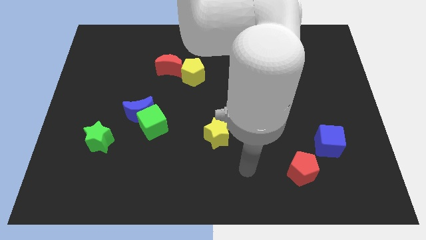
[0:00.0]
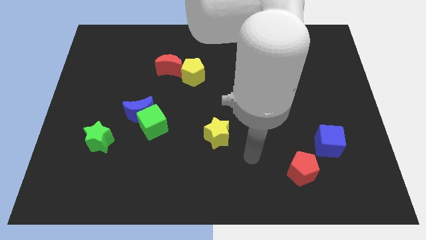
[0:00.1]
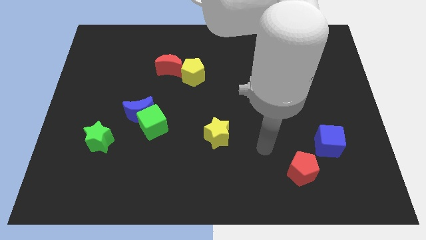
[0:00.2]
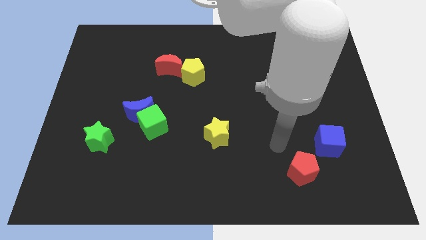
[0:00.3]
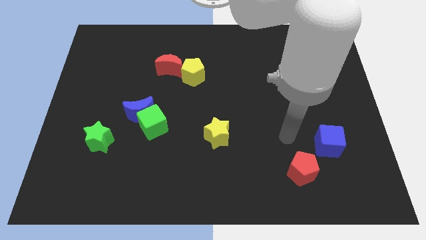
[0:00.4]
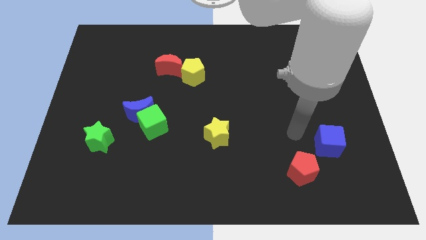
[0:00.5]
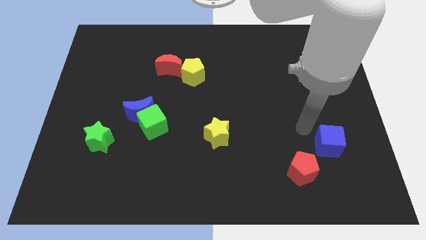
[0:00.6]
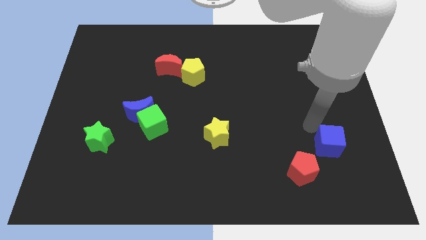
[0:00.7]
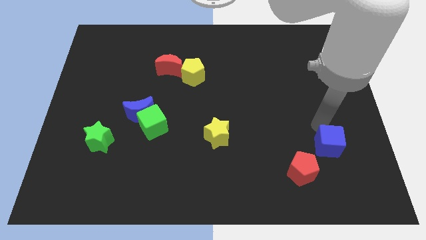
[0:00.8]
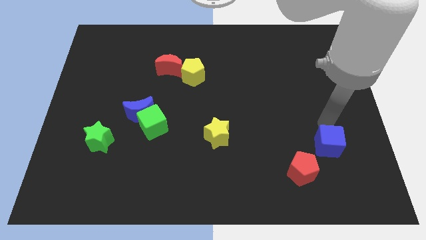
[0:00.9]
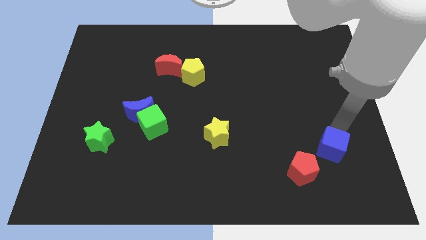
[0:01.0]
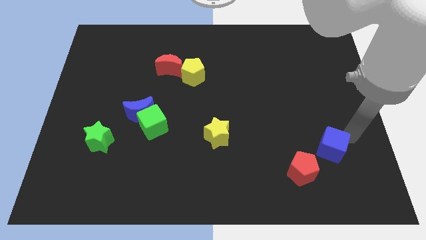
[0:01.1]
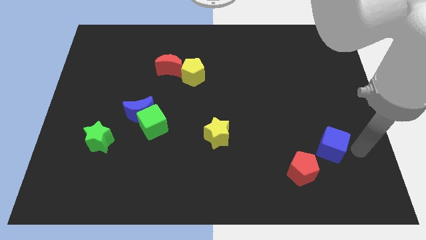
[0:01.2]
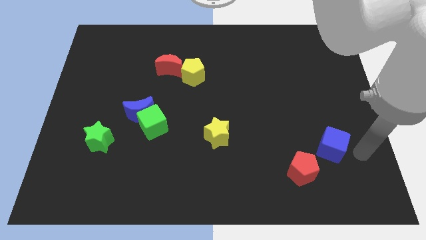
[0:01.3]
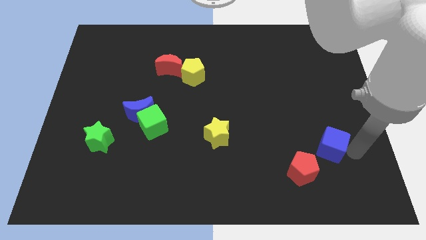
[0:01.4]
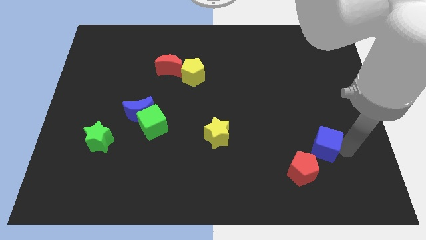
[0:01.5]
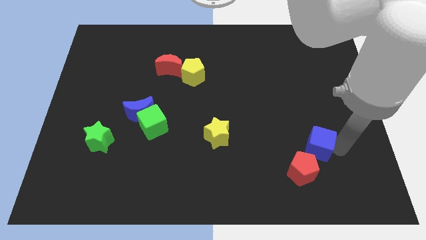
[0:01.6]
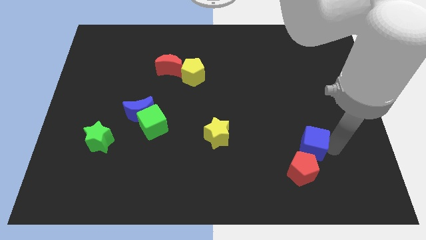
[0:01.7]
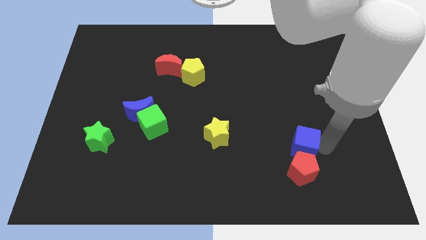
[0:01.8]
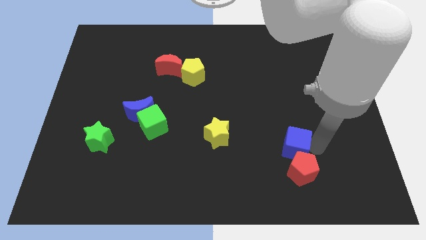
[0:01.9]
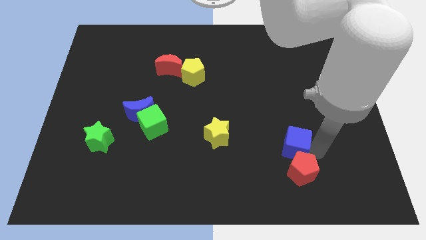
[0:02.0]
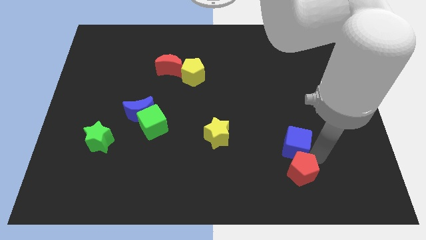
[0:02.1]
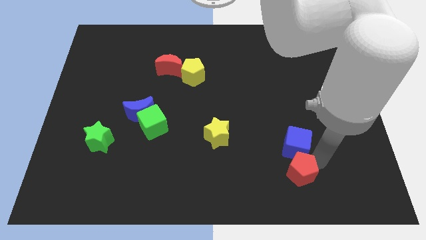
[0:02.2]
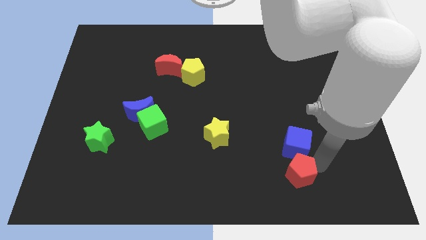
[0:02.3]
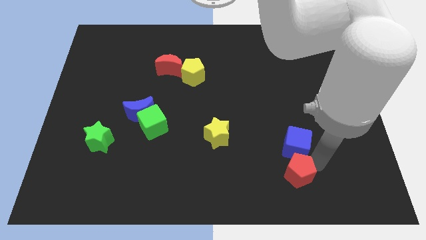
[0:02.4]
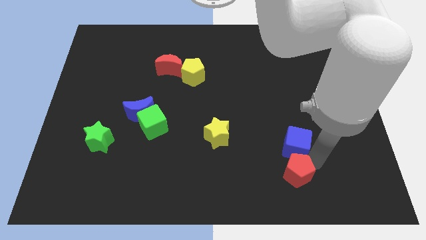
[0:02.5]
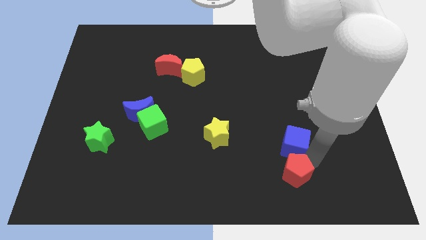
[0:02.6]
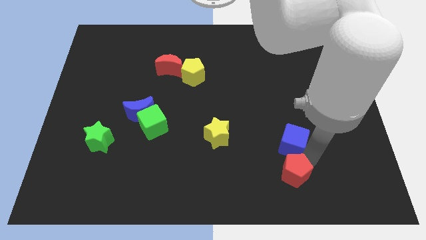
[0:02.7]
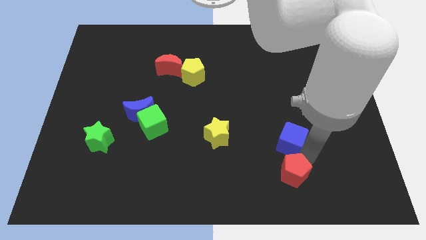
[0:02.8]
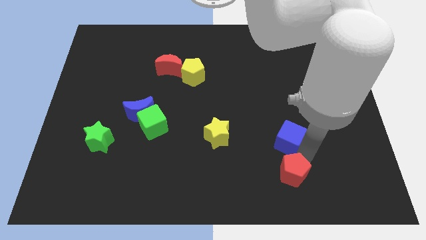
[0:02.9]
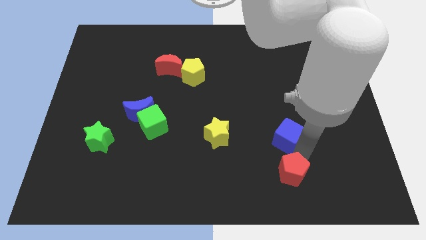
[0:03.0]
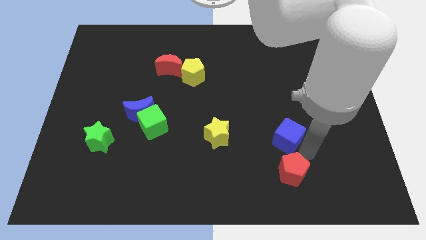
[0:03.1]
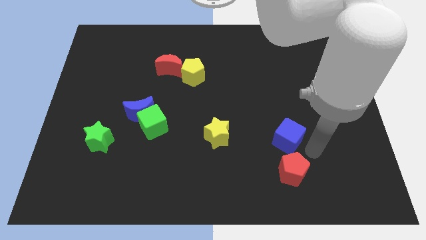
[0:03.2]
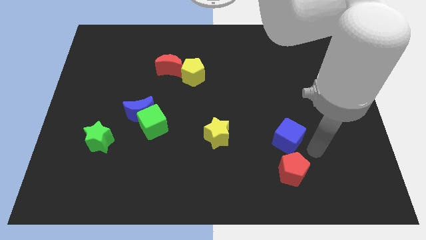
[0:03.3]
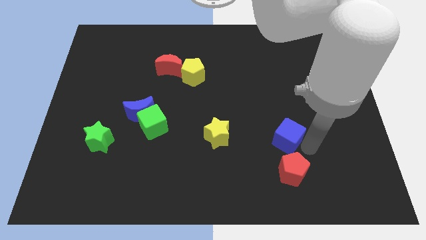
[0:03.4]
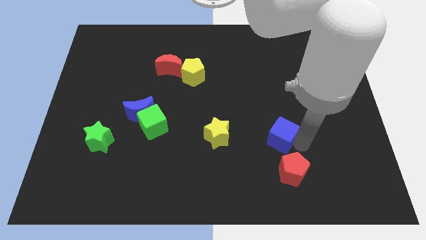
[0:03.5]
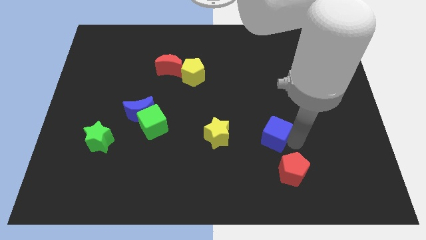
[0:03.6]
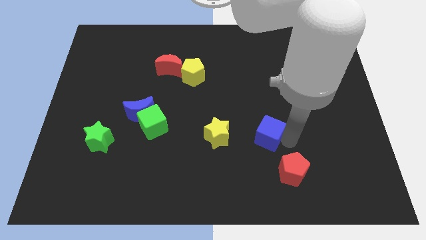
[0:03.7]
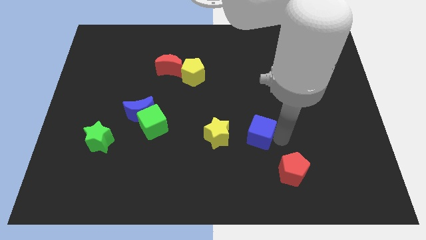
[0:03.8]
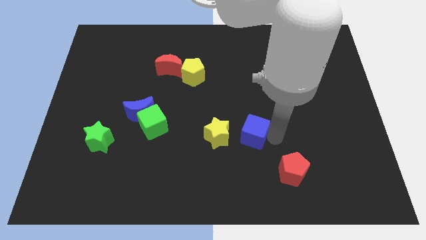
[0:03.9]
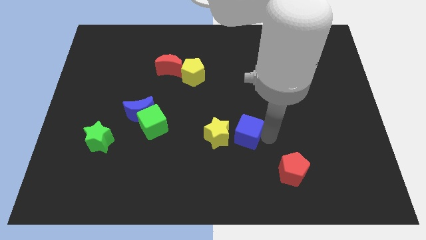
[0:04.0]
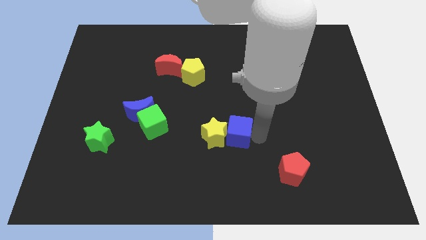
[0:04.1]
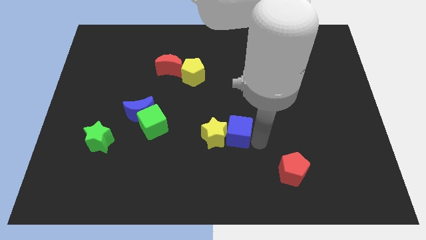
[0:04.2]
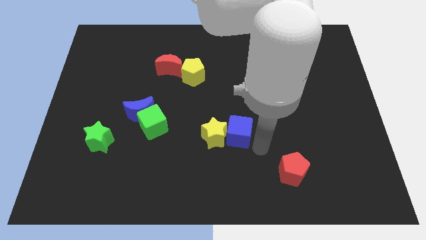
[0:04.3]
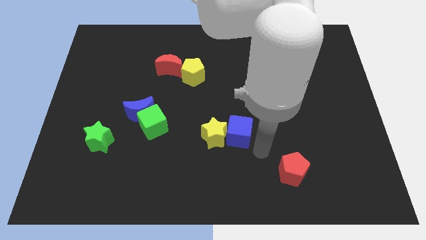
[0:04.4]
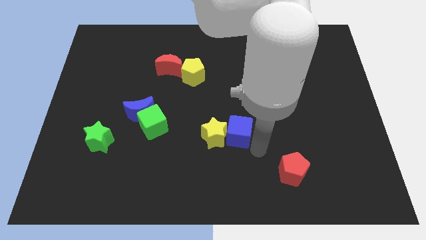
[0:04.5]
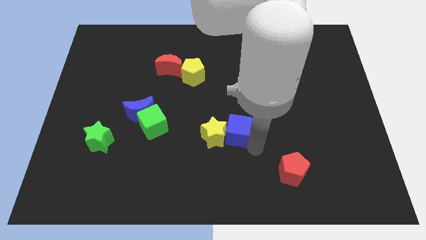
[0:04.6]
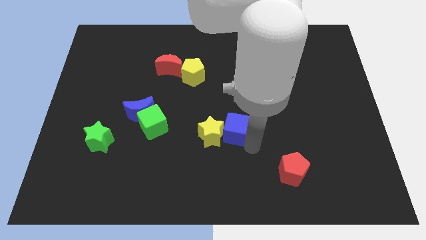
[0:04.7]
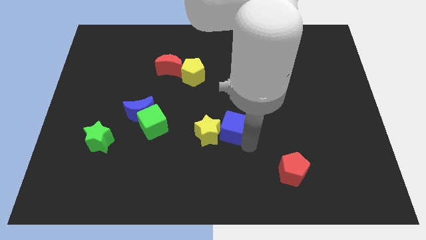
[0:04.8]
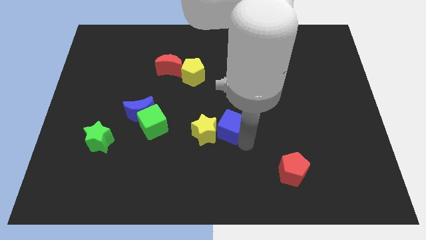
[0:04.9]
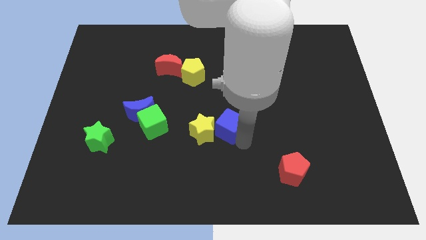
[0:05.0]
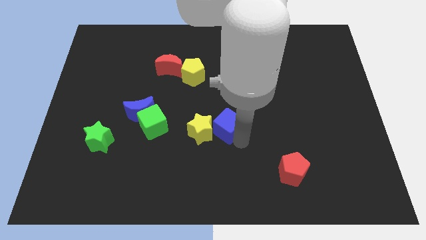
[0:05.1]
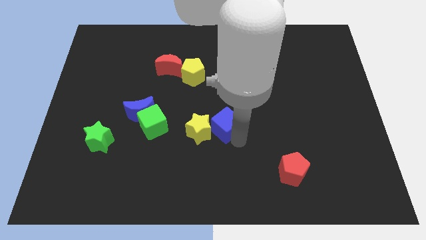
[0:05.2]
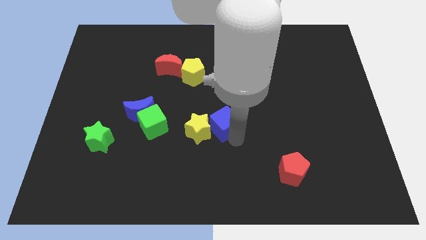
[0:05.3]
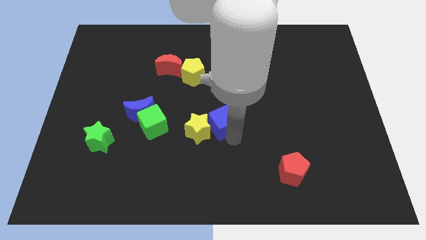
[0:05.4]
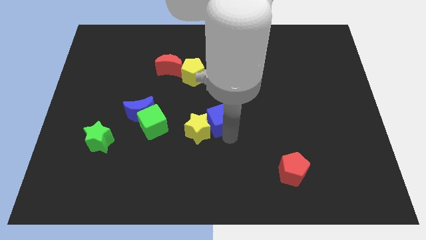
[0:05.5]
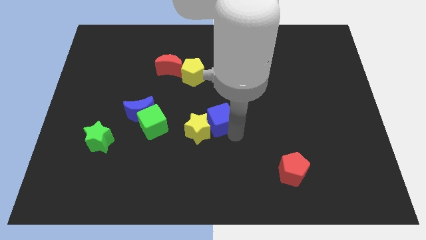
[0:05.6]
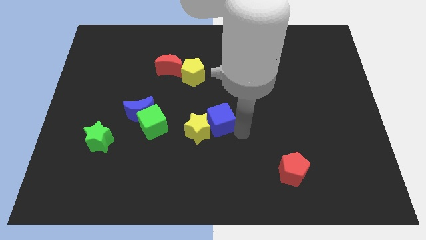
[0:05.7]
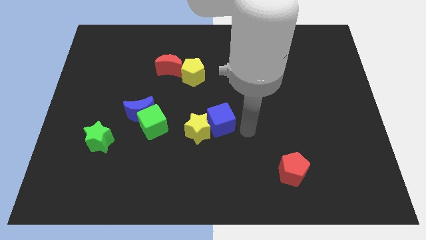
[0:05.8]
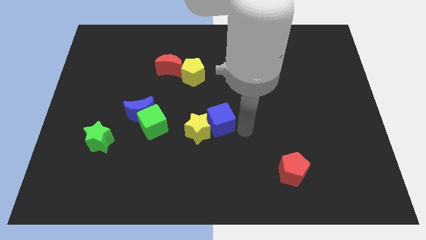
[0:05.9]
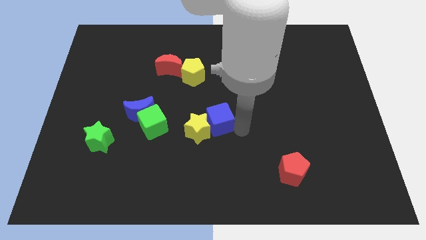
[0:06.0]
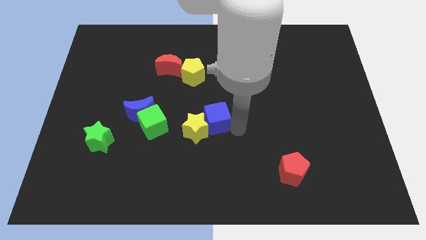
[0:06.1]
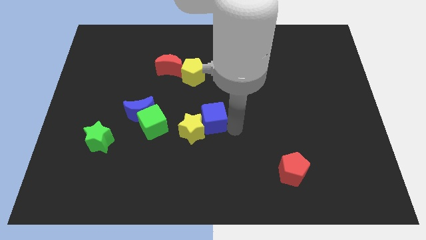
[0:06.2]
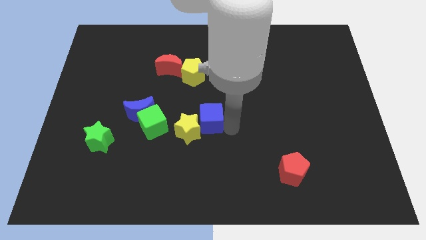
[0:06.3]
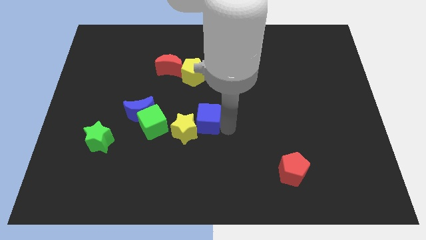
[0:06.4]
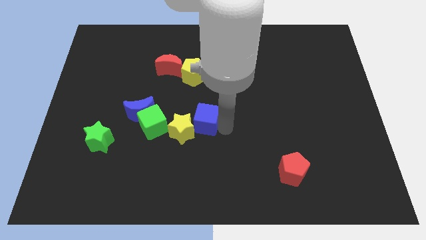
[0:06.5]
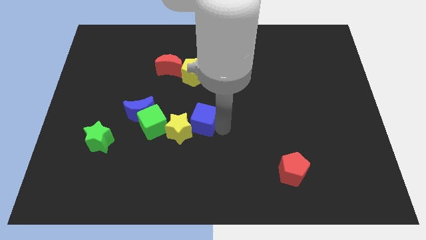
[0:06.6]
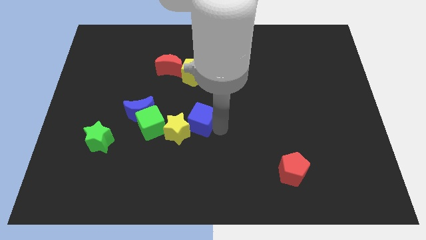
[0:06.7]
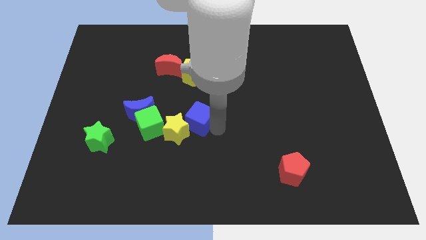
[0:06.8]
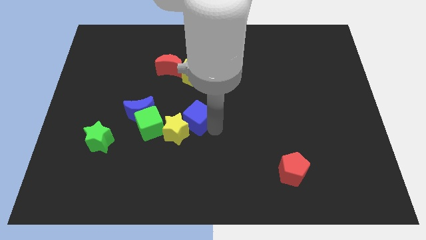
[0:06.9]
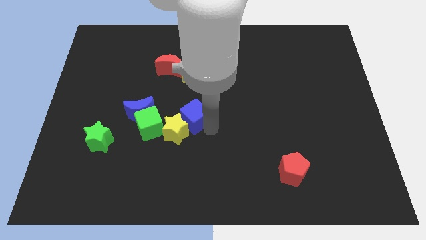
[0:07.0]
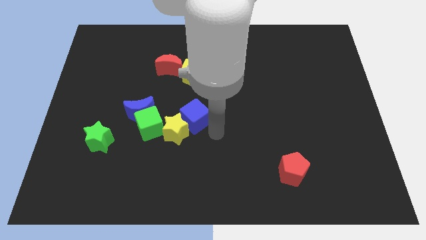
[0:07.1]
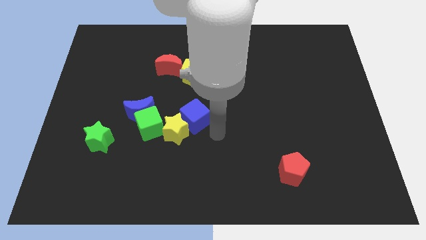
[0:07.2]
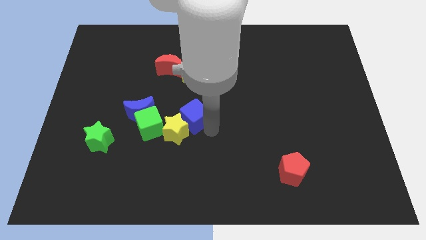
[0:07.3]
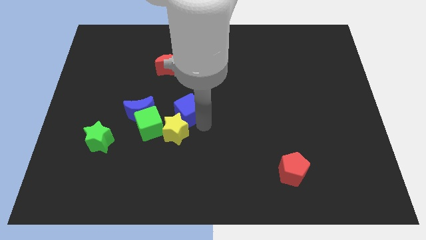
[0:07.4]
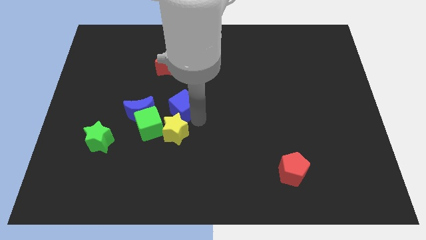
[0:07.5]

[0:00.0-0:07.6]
move the blue cube to the bottom side of the red moon
